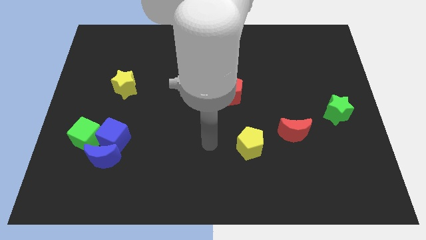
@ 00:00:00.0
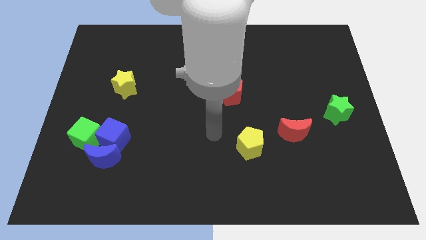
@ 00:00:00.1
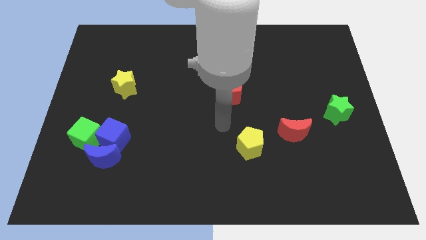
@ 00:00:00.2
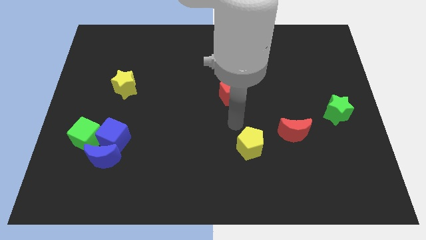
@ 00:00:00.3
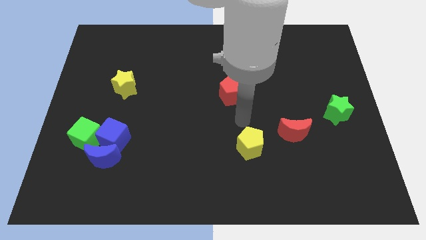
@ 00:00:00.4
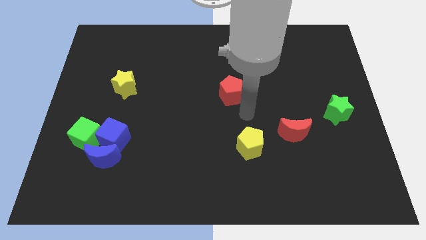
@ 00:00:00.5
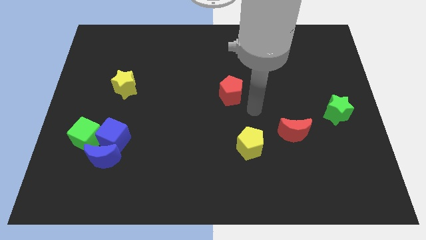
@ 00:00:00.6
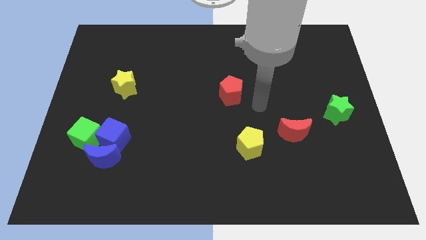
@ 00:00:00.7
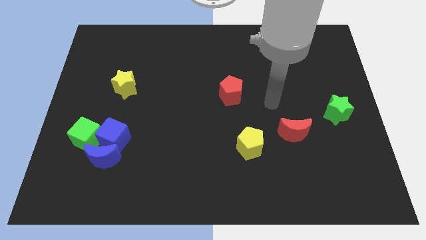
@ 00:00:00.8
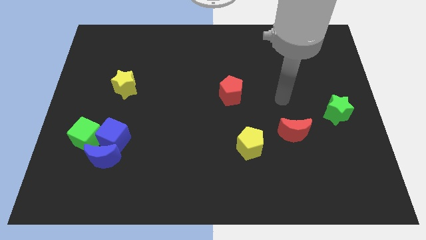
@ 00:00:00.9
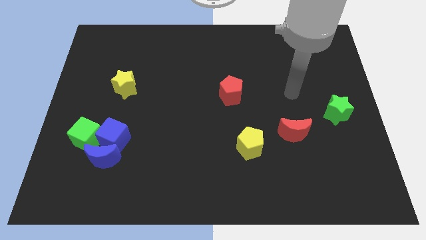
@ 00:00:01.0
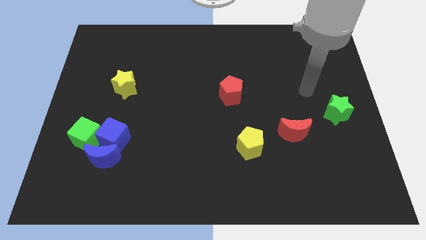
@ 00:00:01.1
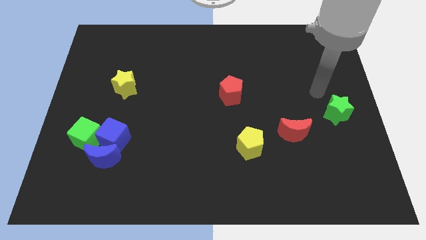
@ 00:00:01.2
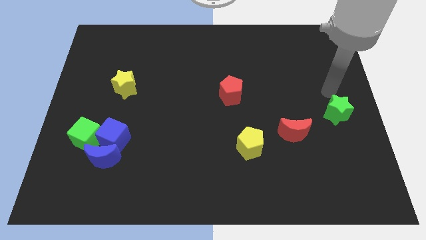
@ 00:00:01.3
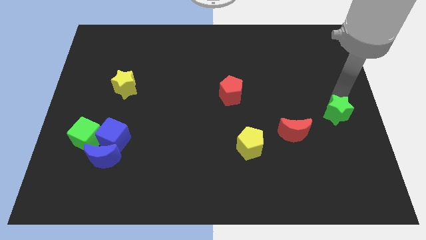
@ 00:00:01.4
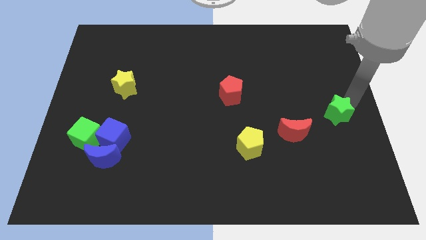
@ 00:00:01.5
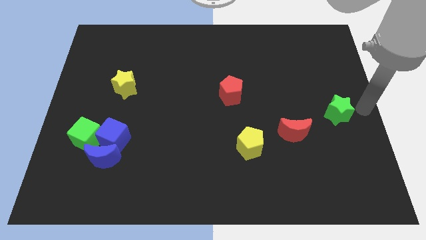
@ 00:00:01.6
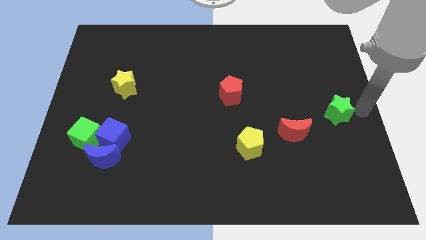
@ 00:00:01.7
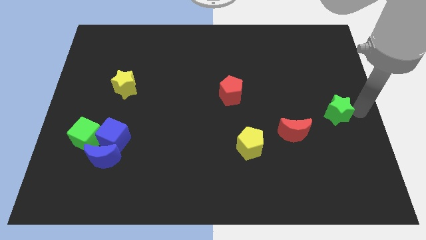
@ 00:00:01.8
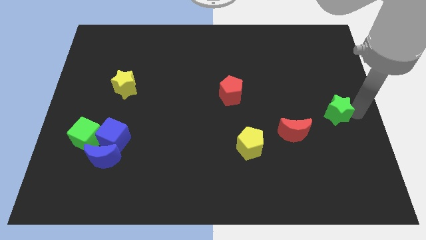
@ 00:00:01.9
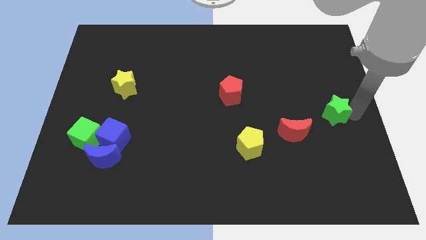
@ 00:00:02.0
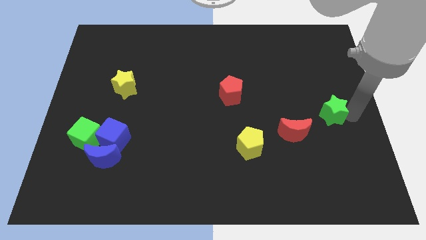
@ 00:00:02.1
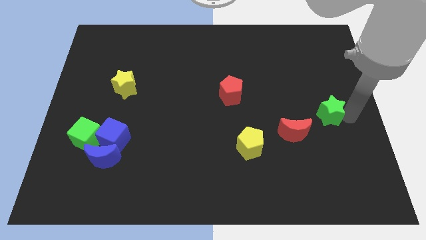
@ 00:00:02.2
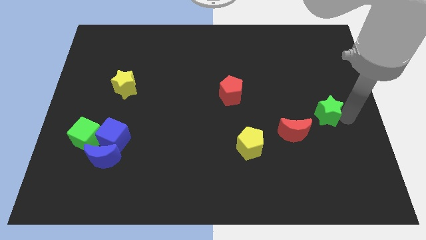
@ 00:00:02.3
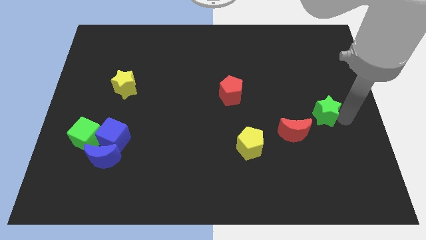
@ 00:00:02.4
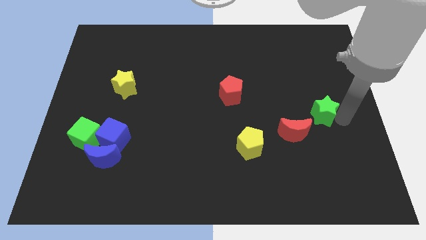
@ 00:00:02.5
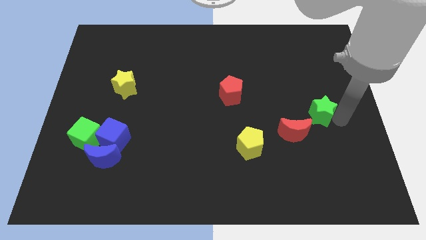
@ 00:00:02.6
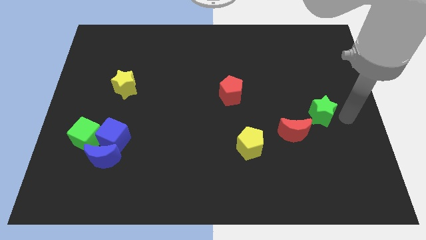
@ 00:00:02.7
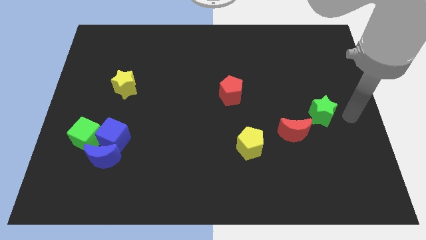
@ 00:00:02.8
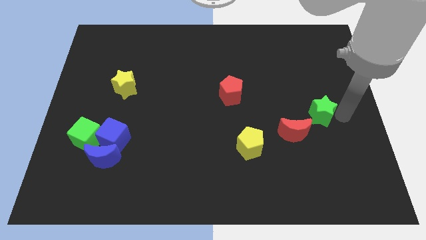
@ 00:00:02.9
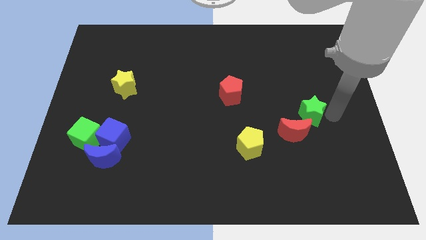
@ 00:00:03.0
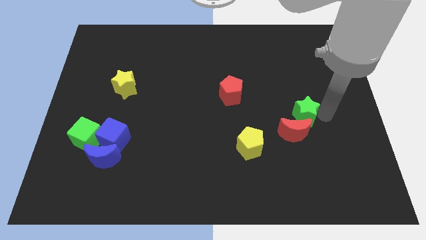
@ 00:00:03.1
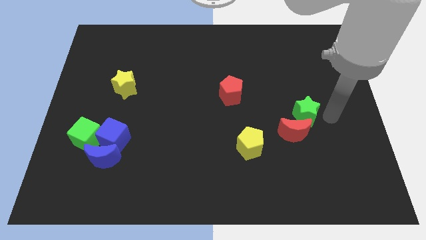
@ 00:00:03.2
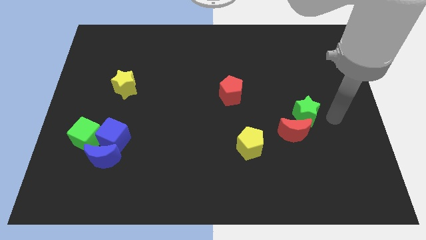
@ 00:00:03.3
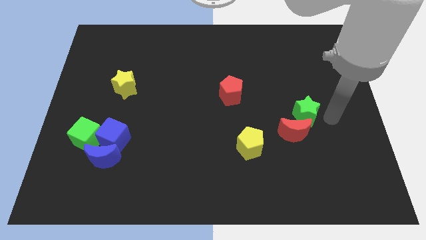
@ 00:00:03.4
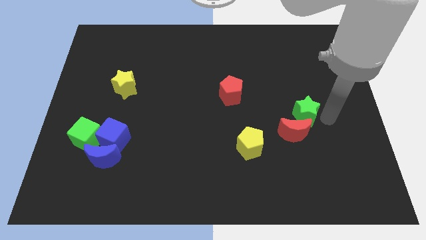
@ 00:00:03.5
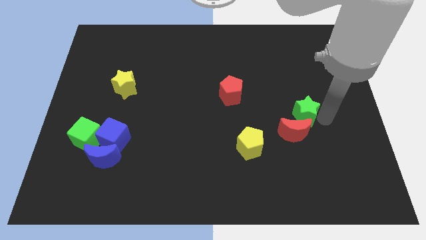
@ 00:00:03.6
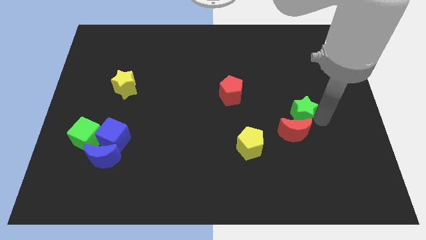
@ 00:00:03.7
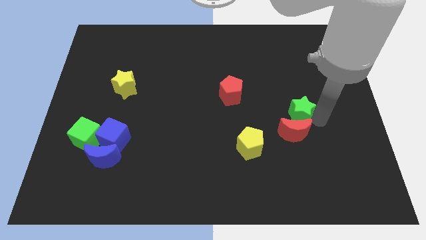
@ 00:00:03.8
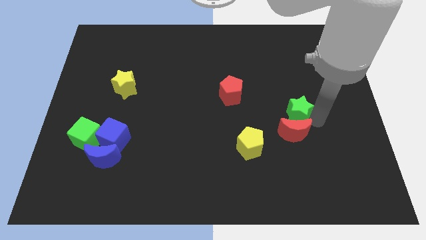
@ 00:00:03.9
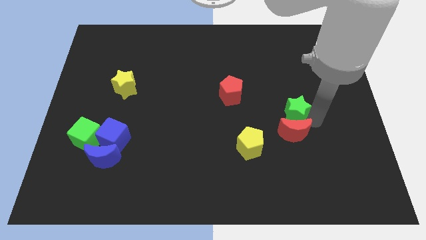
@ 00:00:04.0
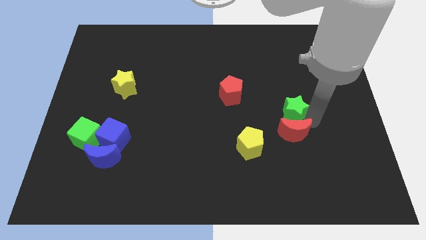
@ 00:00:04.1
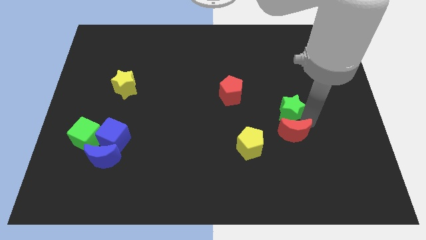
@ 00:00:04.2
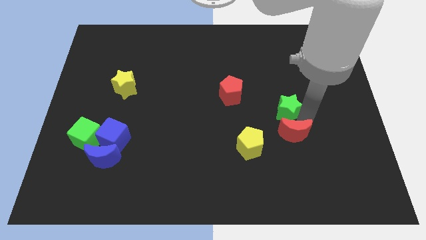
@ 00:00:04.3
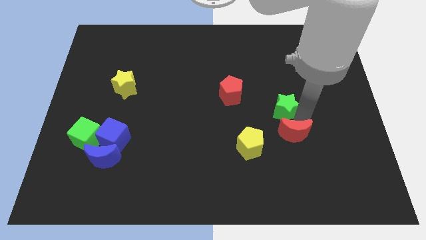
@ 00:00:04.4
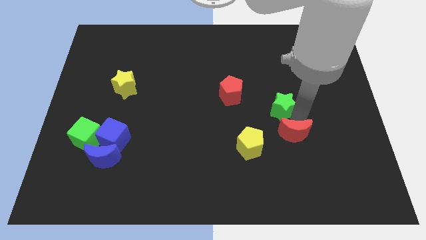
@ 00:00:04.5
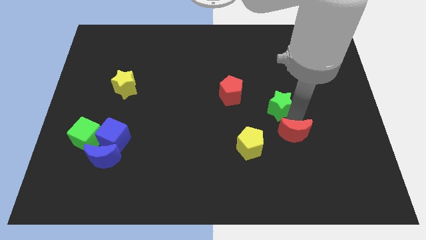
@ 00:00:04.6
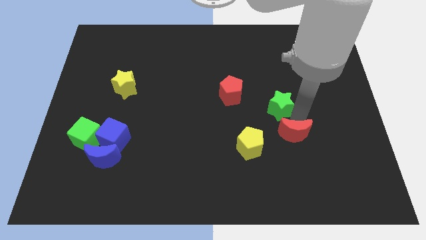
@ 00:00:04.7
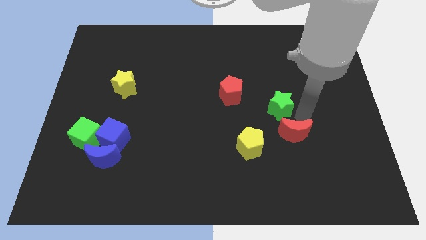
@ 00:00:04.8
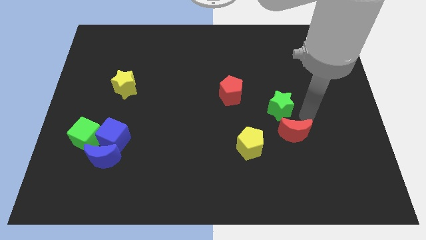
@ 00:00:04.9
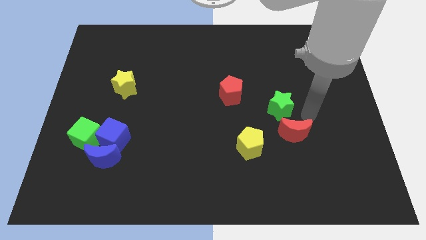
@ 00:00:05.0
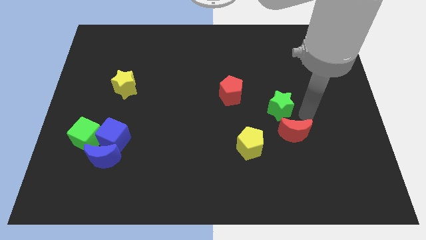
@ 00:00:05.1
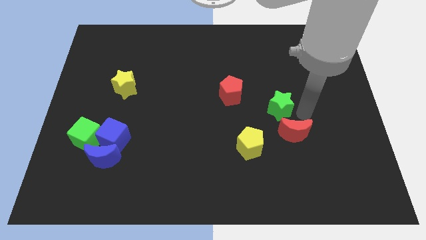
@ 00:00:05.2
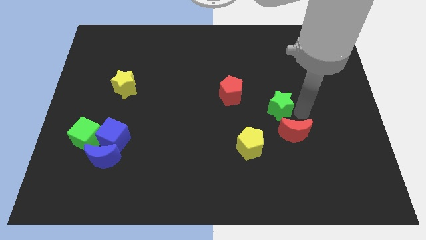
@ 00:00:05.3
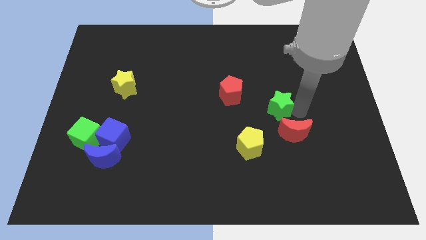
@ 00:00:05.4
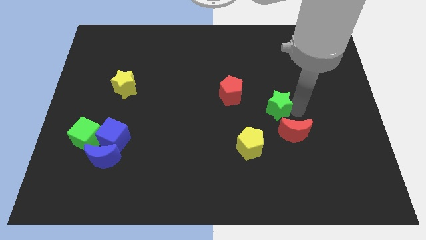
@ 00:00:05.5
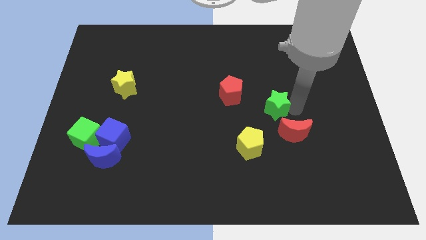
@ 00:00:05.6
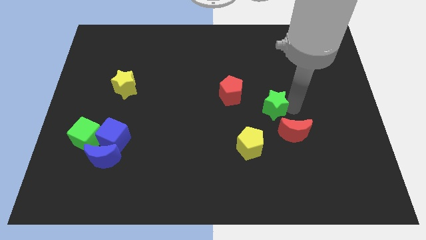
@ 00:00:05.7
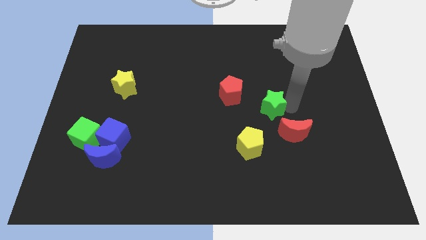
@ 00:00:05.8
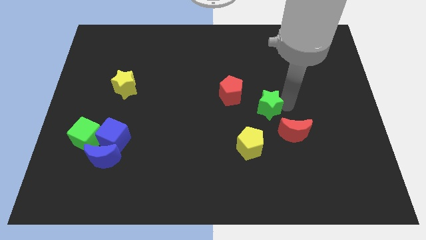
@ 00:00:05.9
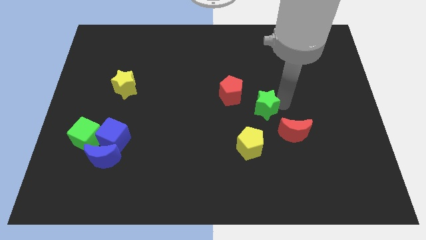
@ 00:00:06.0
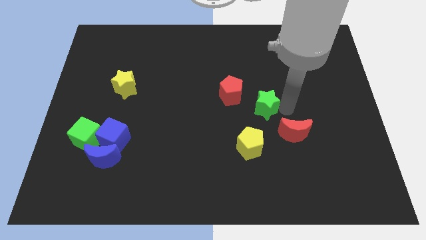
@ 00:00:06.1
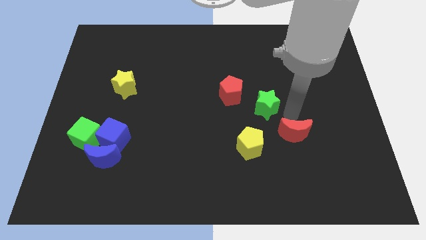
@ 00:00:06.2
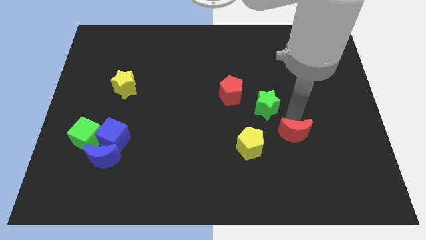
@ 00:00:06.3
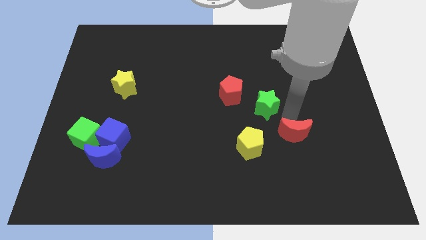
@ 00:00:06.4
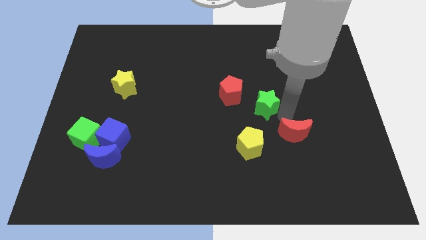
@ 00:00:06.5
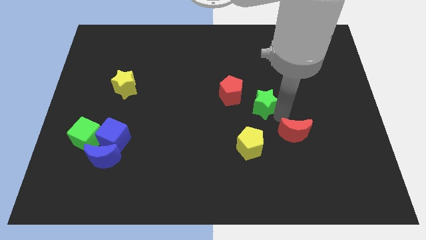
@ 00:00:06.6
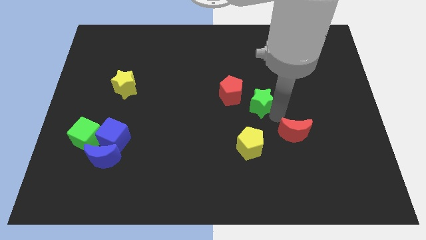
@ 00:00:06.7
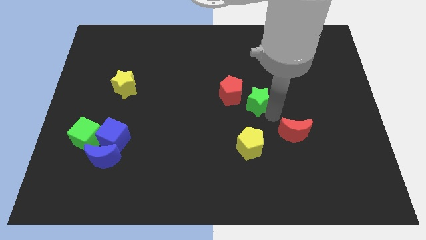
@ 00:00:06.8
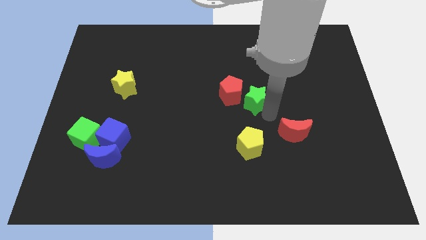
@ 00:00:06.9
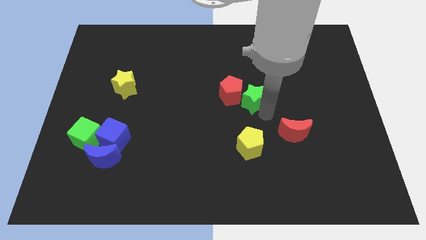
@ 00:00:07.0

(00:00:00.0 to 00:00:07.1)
push the green star next to the red pentagon

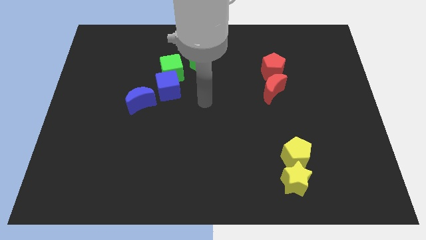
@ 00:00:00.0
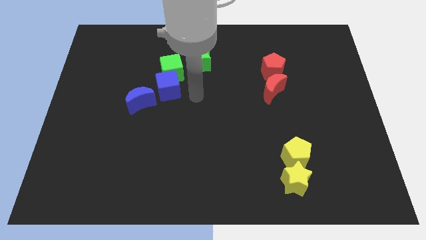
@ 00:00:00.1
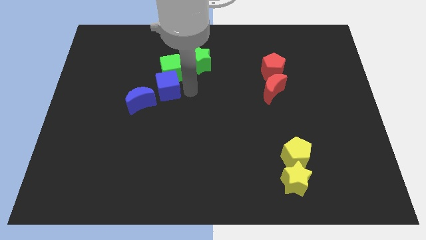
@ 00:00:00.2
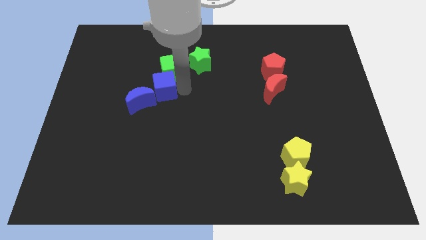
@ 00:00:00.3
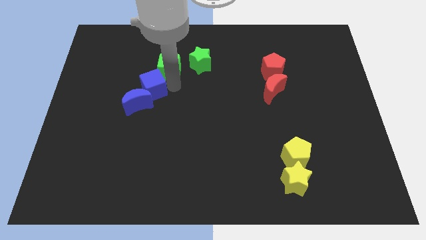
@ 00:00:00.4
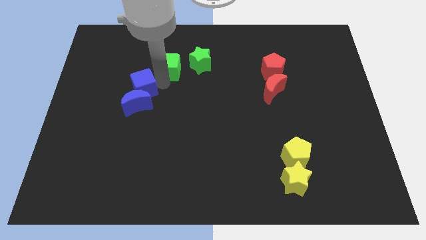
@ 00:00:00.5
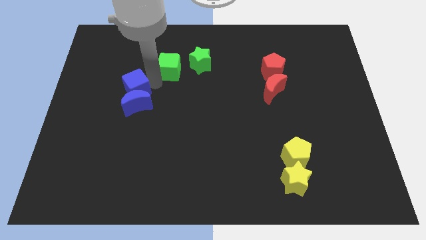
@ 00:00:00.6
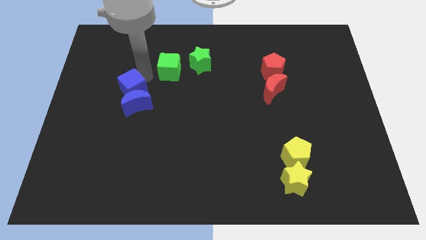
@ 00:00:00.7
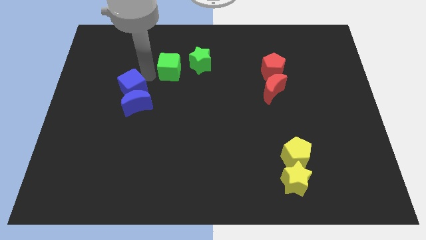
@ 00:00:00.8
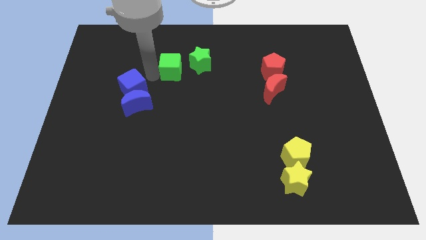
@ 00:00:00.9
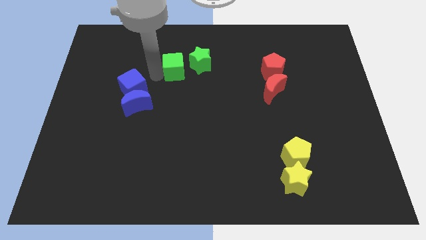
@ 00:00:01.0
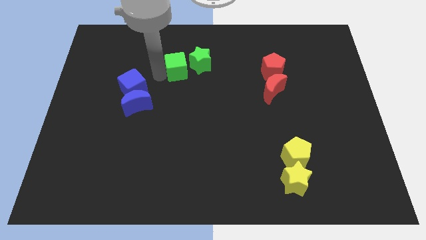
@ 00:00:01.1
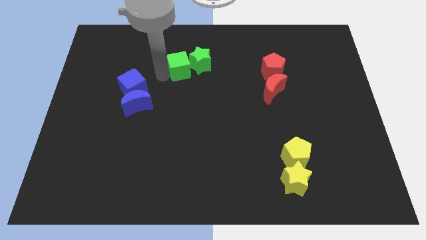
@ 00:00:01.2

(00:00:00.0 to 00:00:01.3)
slide the green cube towards the green star
